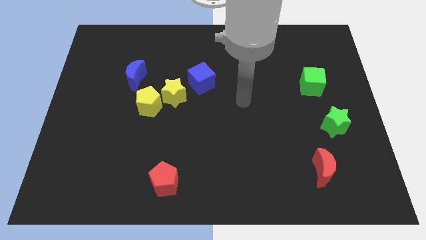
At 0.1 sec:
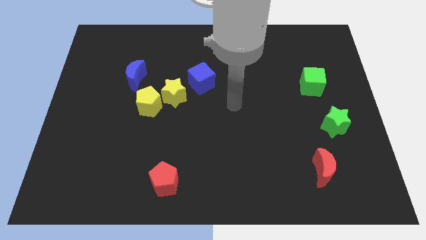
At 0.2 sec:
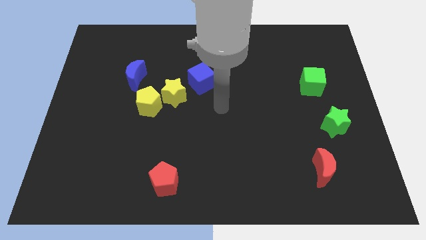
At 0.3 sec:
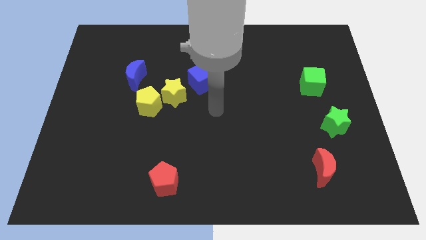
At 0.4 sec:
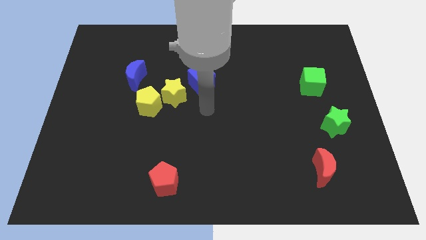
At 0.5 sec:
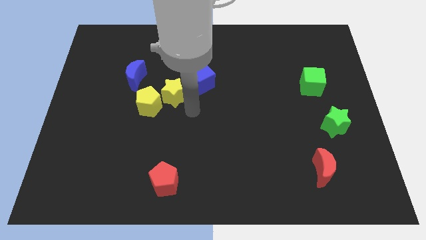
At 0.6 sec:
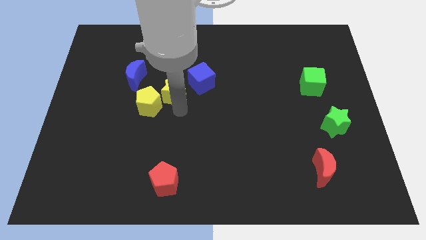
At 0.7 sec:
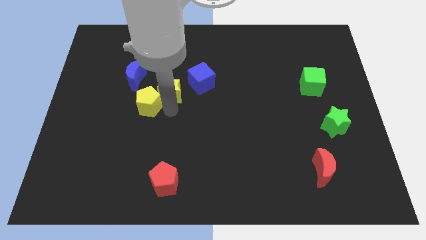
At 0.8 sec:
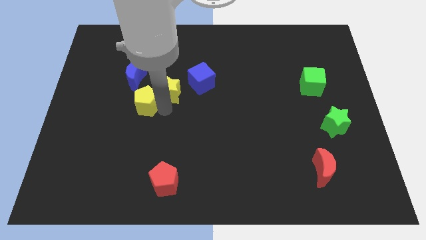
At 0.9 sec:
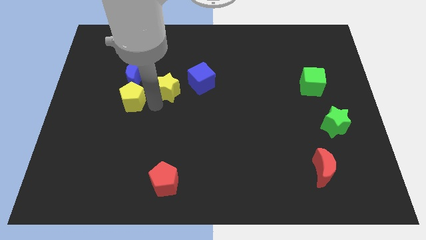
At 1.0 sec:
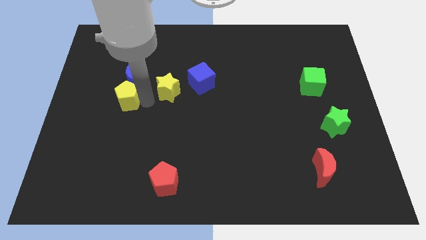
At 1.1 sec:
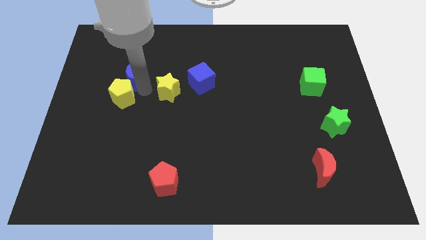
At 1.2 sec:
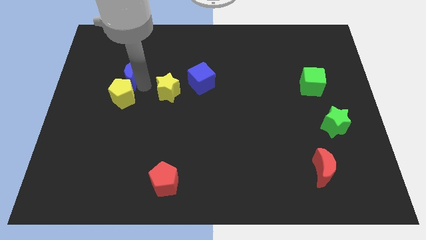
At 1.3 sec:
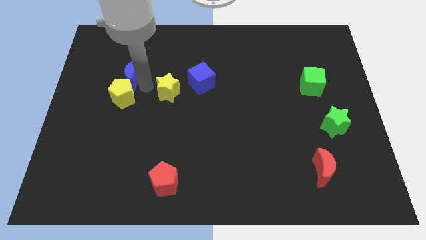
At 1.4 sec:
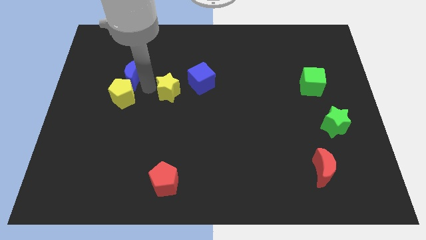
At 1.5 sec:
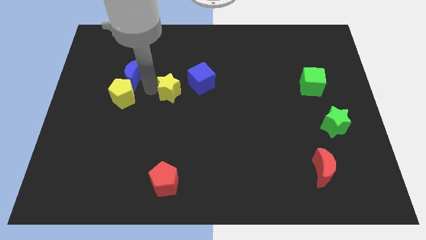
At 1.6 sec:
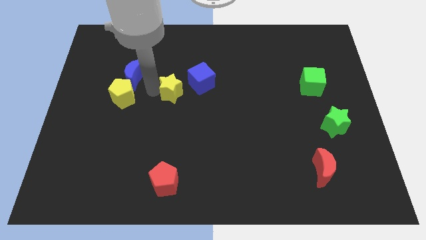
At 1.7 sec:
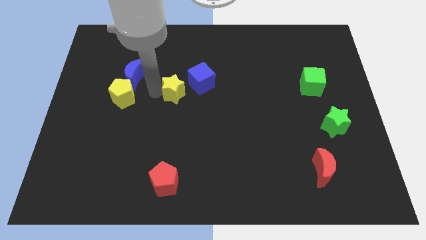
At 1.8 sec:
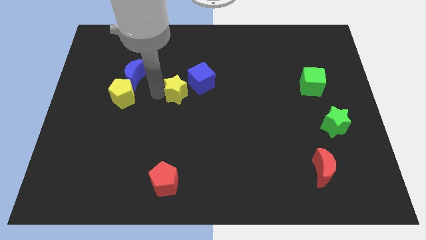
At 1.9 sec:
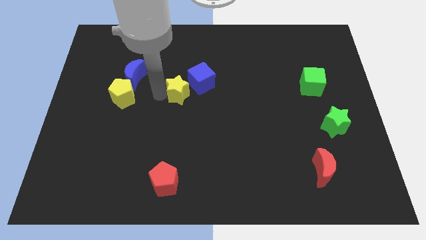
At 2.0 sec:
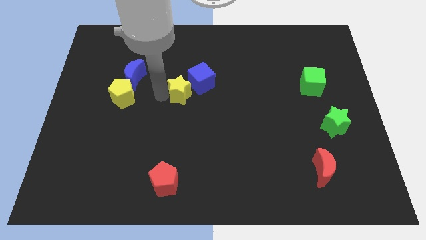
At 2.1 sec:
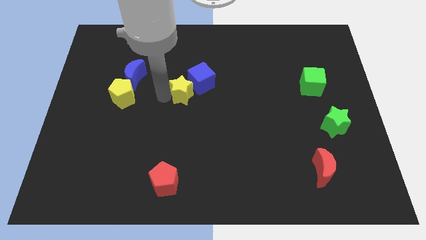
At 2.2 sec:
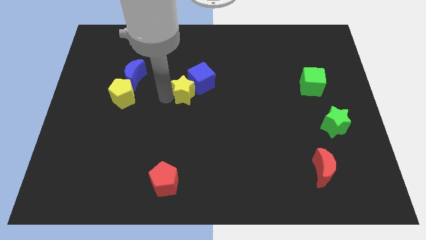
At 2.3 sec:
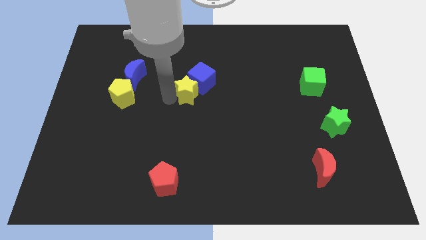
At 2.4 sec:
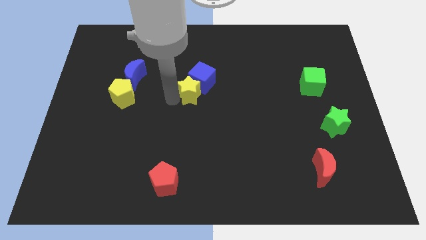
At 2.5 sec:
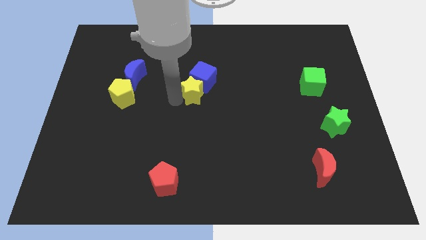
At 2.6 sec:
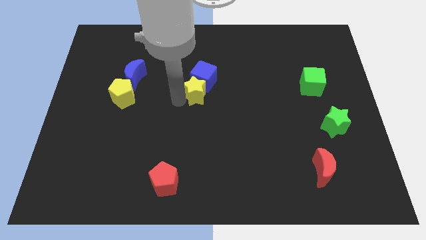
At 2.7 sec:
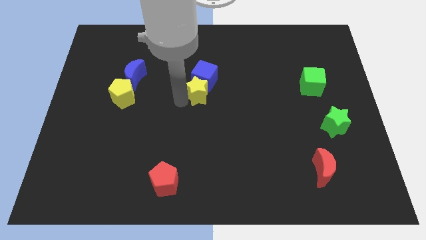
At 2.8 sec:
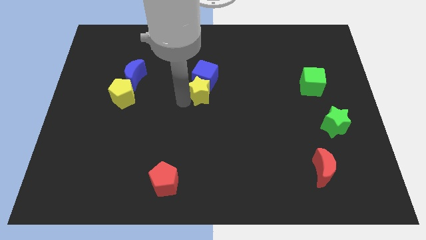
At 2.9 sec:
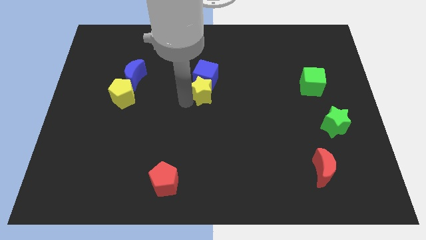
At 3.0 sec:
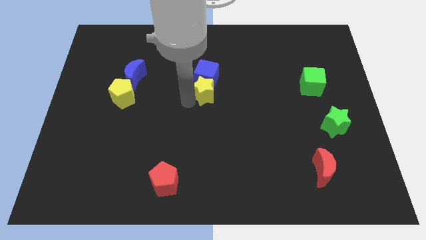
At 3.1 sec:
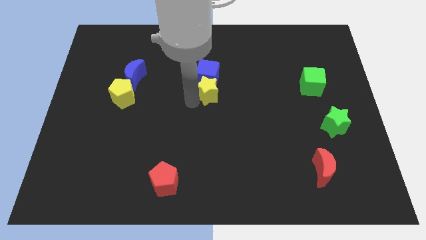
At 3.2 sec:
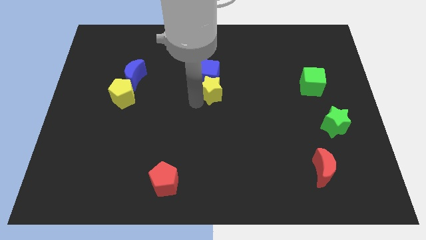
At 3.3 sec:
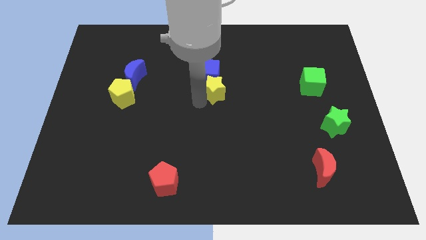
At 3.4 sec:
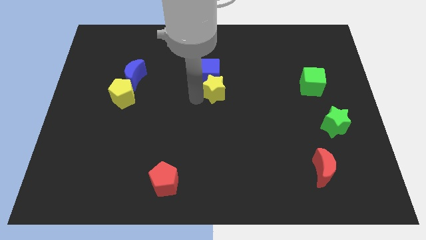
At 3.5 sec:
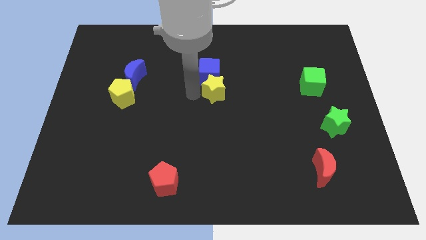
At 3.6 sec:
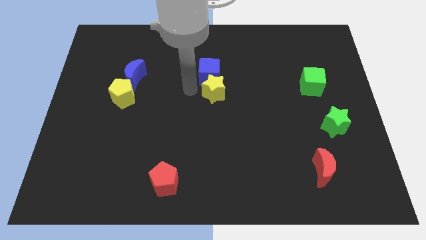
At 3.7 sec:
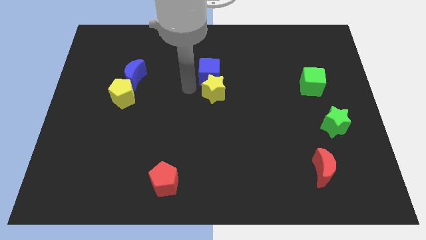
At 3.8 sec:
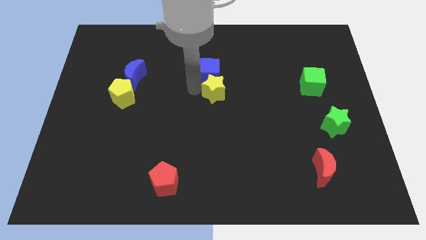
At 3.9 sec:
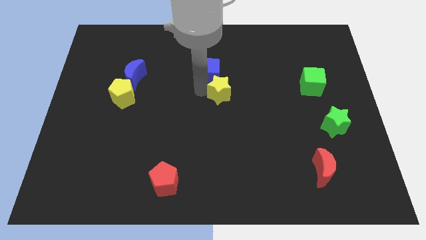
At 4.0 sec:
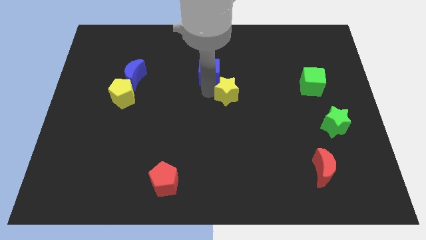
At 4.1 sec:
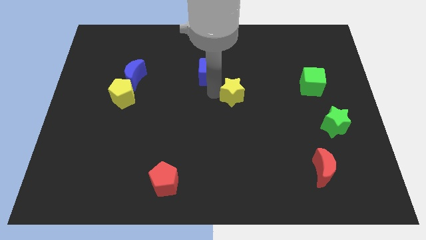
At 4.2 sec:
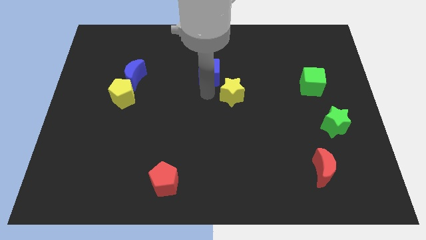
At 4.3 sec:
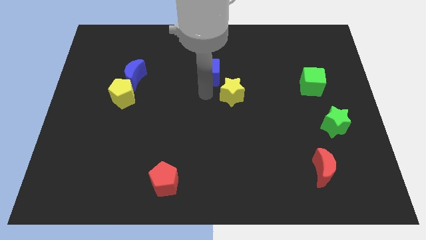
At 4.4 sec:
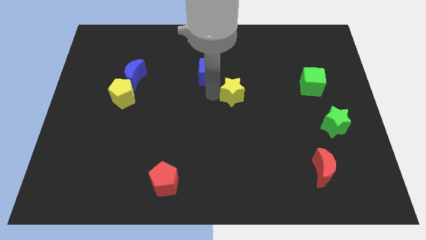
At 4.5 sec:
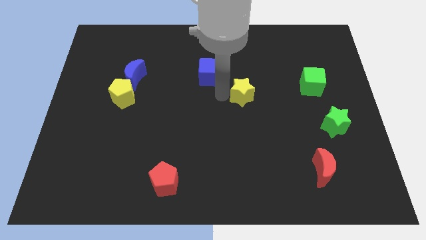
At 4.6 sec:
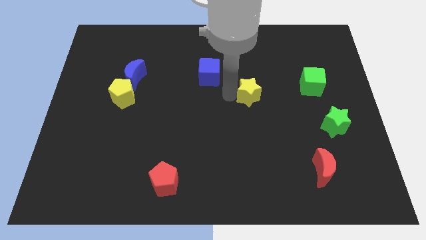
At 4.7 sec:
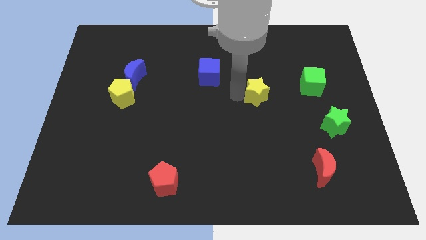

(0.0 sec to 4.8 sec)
move the yellow star right

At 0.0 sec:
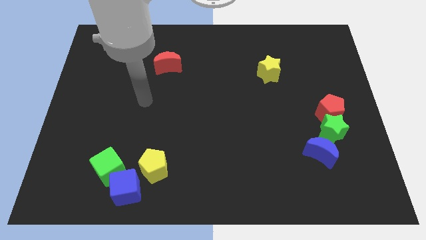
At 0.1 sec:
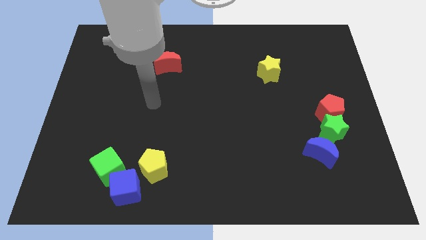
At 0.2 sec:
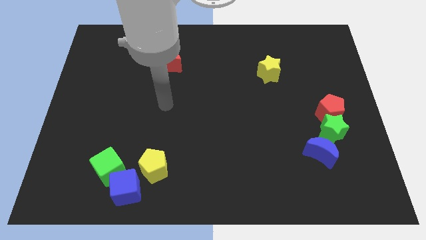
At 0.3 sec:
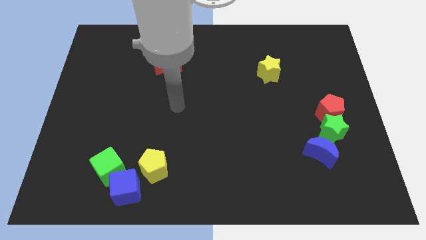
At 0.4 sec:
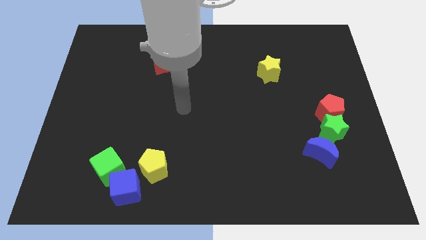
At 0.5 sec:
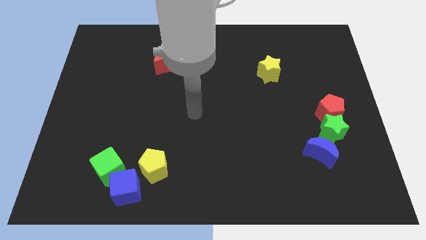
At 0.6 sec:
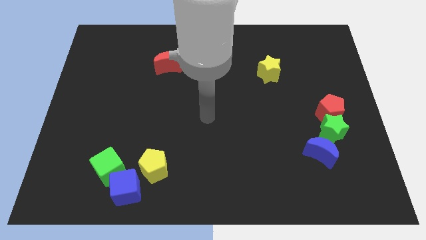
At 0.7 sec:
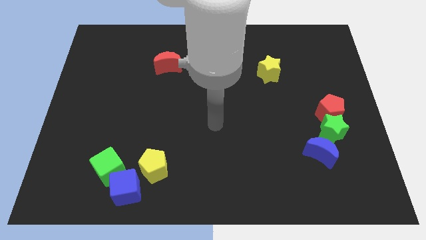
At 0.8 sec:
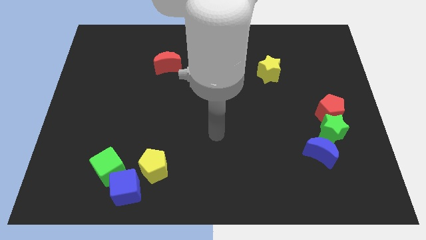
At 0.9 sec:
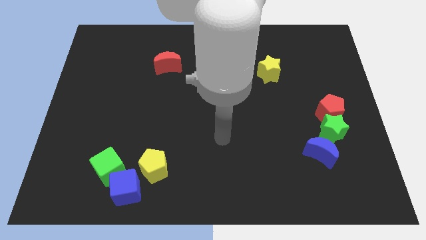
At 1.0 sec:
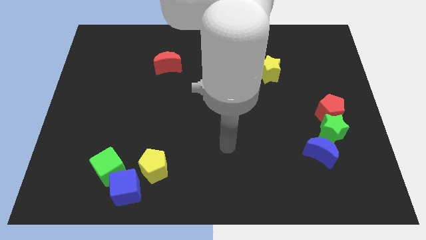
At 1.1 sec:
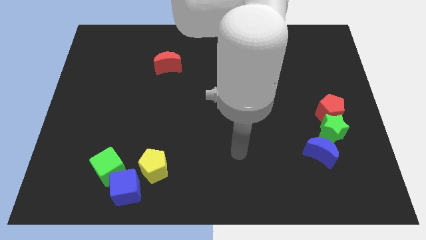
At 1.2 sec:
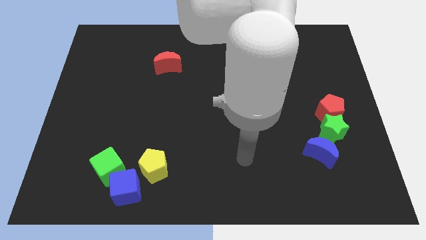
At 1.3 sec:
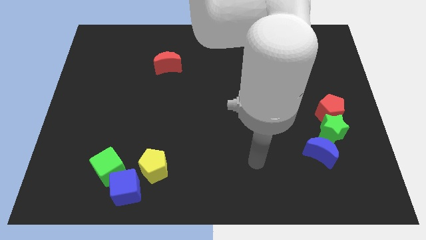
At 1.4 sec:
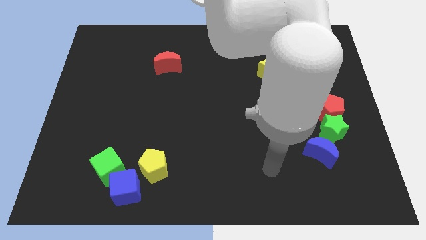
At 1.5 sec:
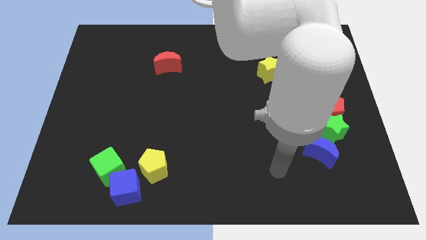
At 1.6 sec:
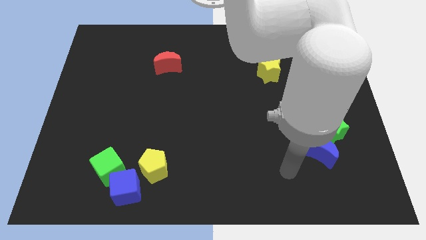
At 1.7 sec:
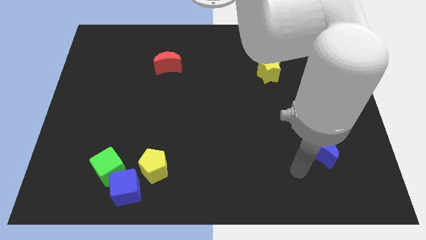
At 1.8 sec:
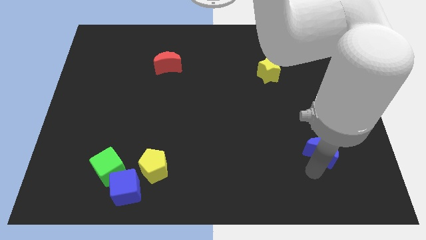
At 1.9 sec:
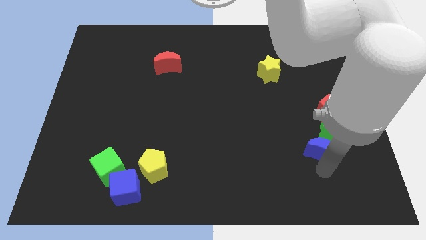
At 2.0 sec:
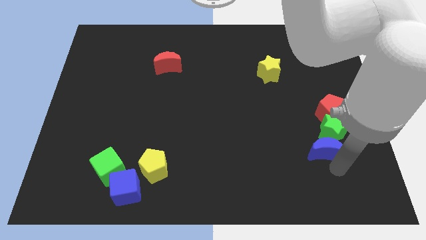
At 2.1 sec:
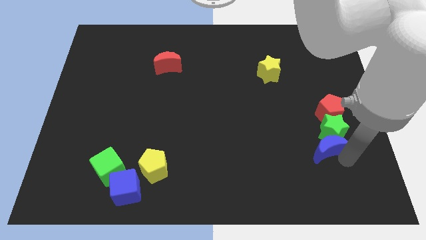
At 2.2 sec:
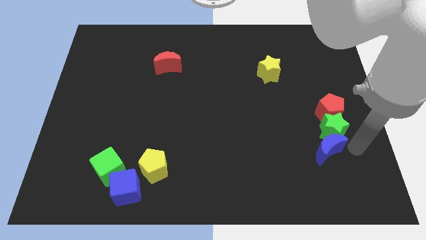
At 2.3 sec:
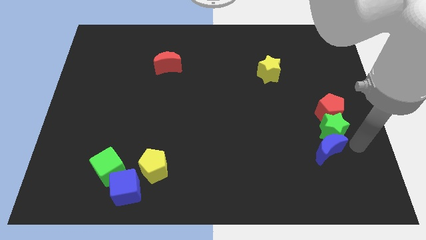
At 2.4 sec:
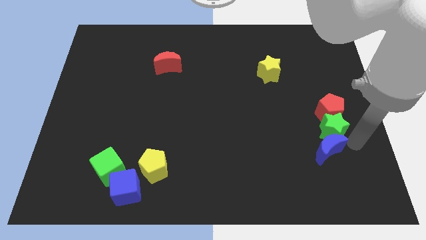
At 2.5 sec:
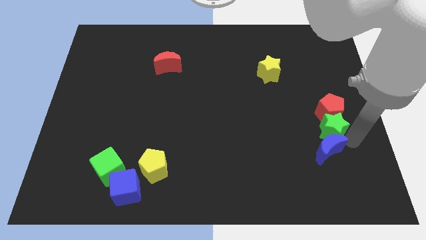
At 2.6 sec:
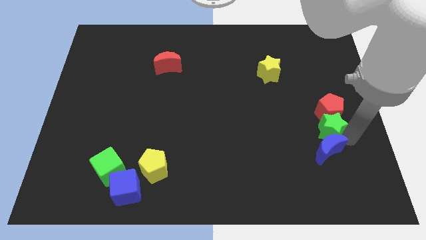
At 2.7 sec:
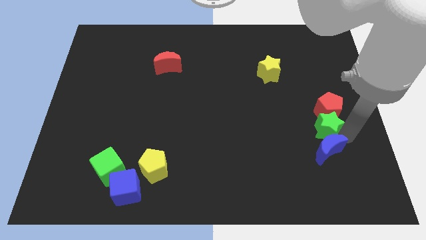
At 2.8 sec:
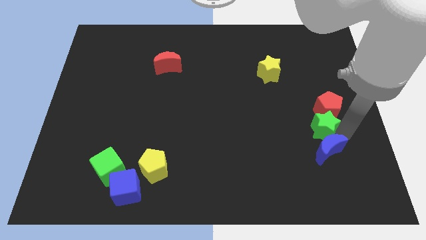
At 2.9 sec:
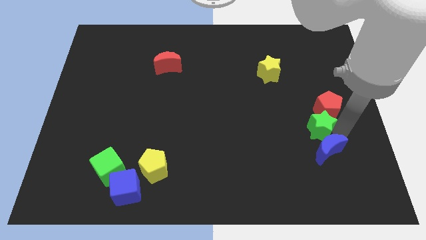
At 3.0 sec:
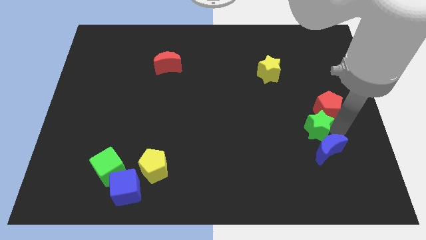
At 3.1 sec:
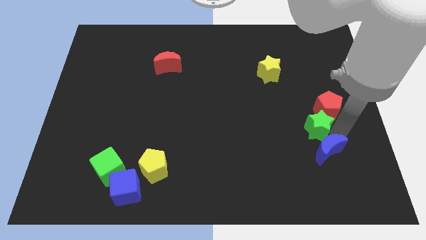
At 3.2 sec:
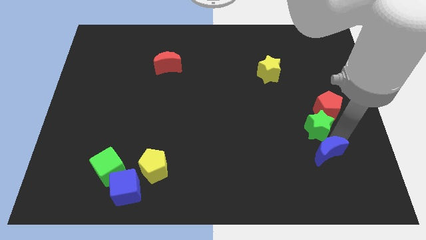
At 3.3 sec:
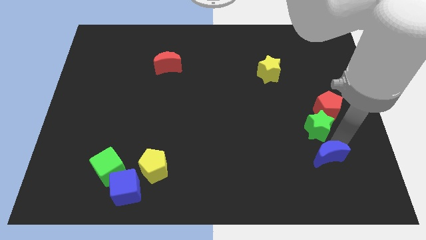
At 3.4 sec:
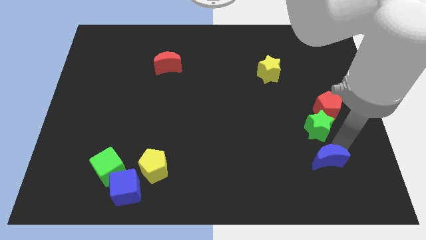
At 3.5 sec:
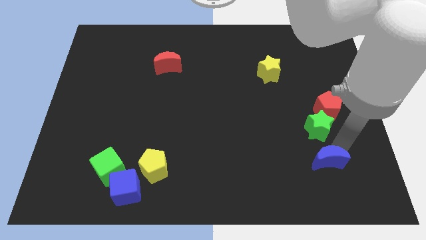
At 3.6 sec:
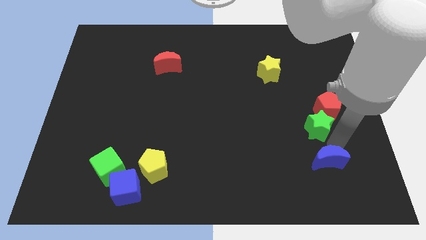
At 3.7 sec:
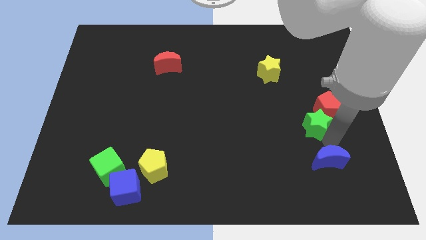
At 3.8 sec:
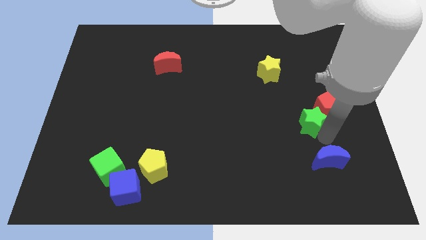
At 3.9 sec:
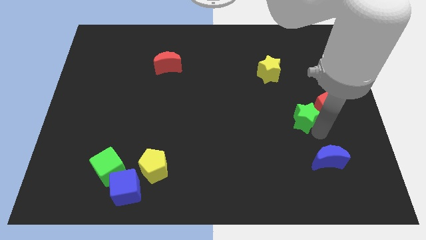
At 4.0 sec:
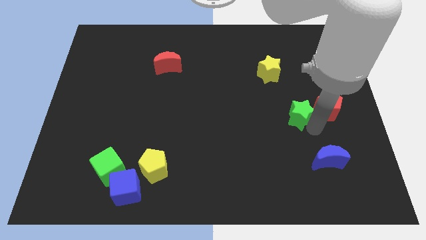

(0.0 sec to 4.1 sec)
push the green star upwards and to the left a little
